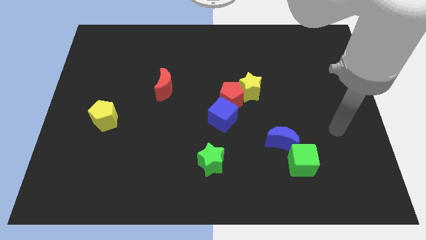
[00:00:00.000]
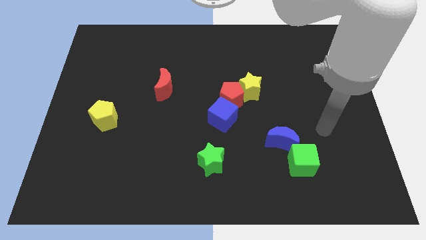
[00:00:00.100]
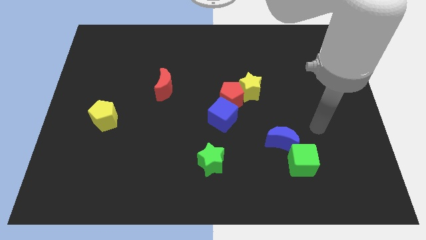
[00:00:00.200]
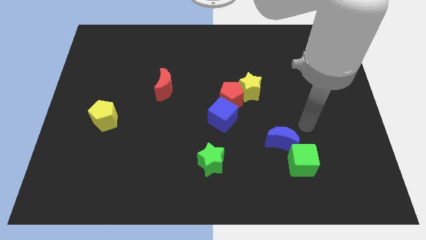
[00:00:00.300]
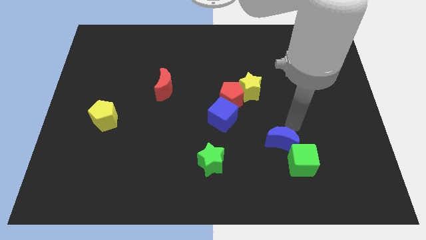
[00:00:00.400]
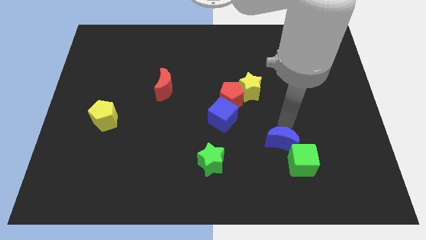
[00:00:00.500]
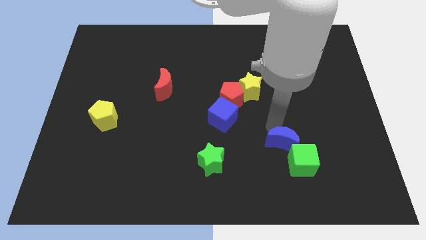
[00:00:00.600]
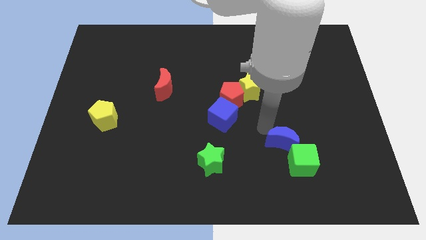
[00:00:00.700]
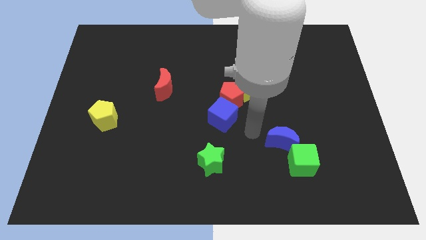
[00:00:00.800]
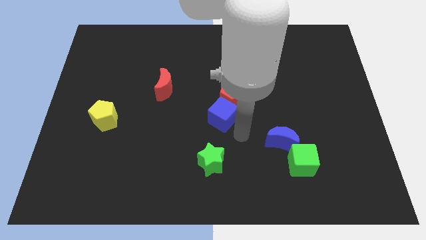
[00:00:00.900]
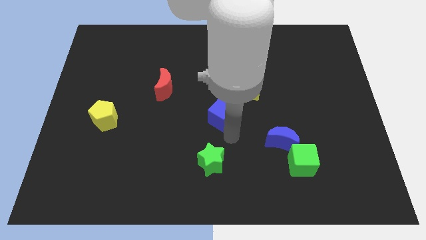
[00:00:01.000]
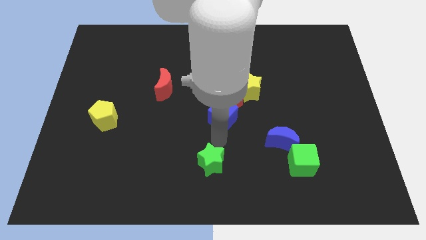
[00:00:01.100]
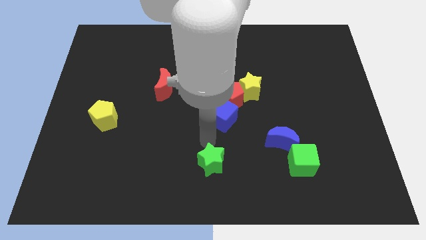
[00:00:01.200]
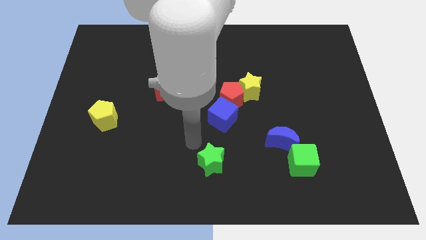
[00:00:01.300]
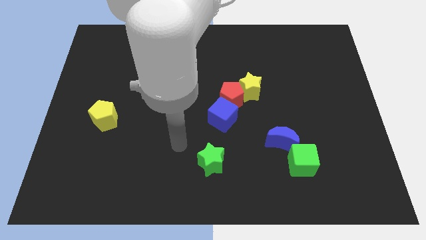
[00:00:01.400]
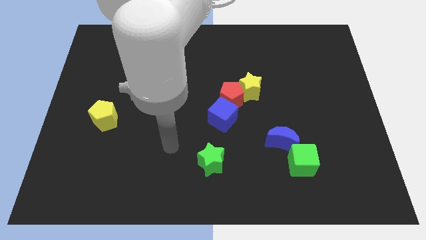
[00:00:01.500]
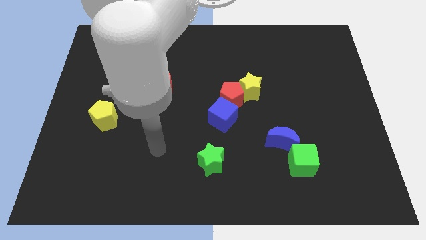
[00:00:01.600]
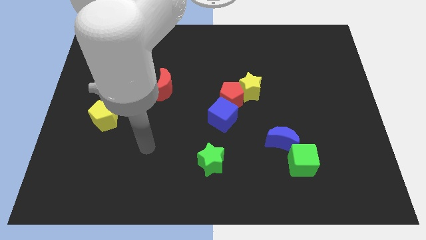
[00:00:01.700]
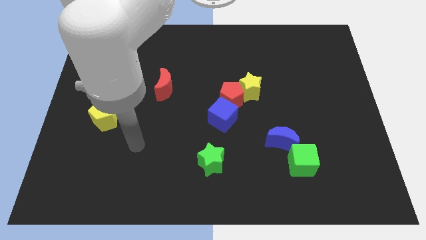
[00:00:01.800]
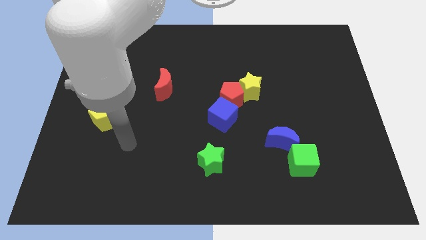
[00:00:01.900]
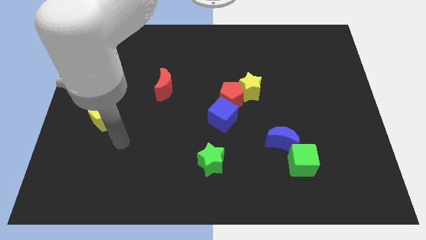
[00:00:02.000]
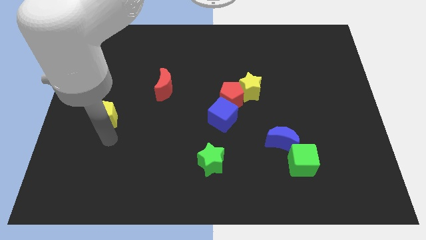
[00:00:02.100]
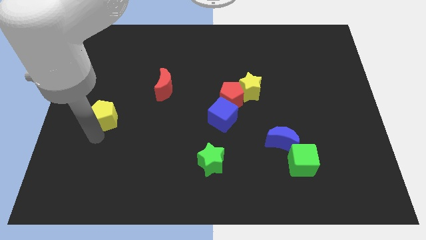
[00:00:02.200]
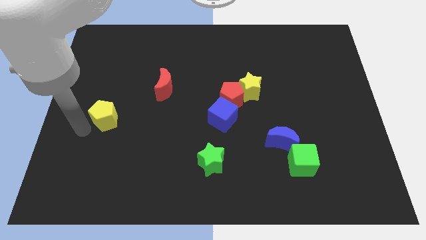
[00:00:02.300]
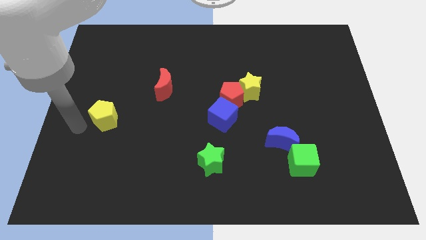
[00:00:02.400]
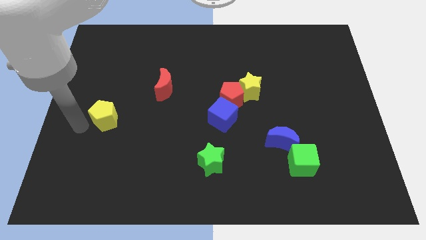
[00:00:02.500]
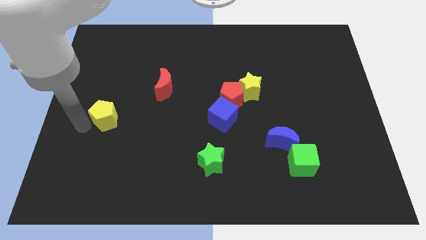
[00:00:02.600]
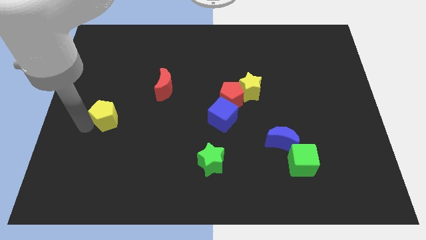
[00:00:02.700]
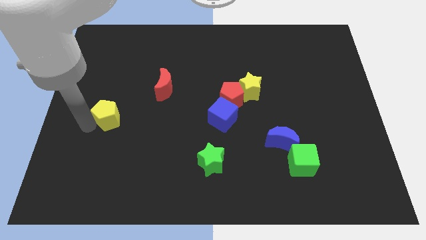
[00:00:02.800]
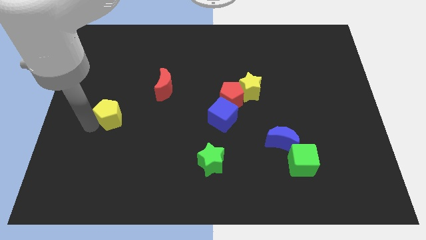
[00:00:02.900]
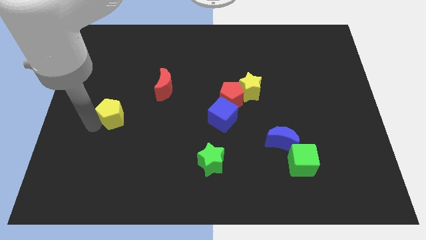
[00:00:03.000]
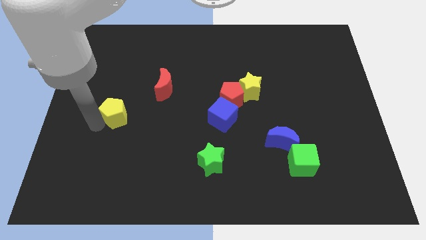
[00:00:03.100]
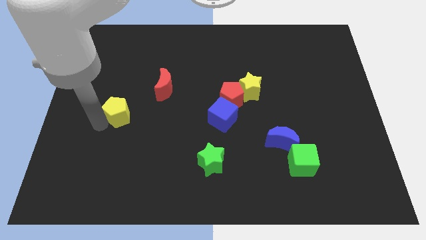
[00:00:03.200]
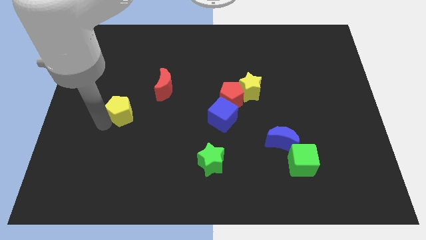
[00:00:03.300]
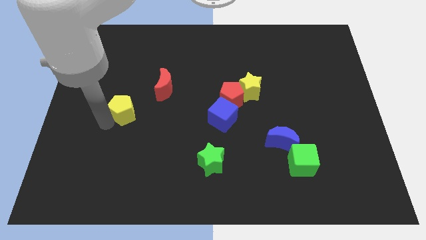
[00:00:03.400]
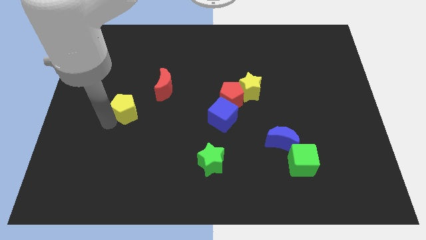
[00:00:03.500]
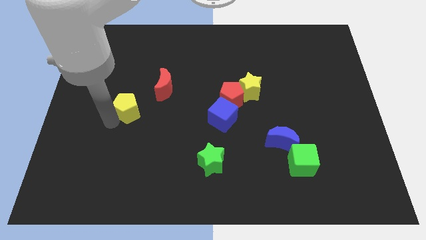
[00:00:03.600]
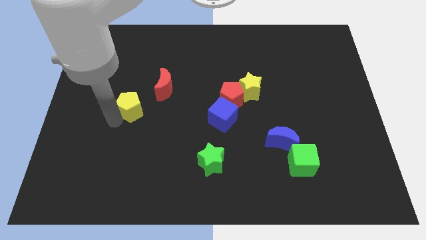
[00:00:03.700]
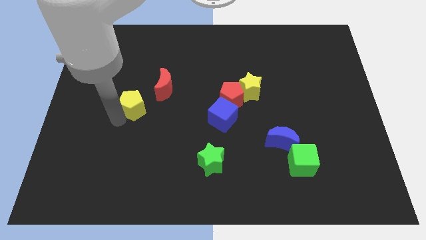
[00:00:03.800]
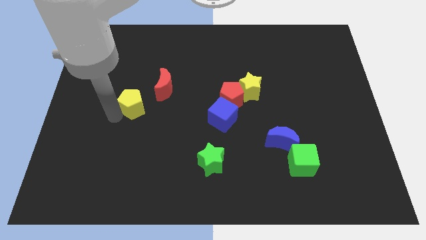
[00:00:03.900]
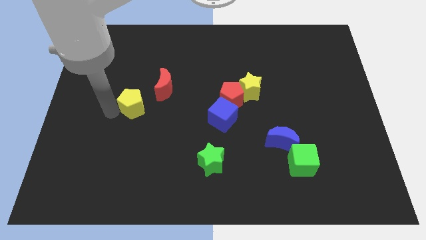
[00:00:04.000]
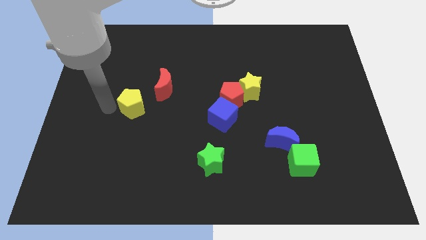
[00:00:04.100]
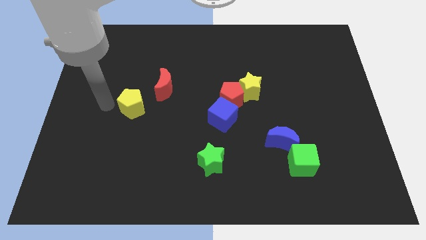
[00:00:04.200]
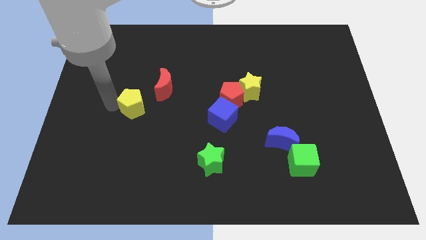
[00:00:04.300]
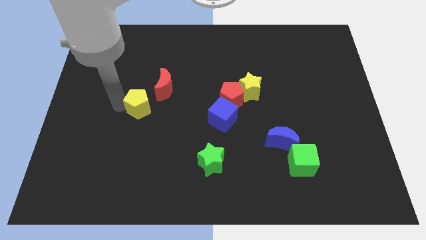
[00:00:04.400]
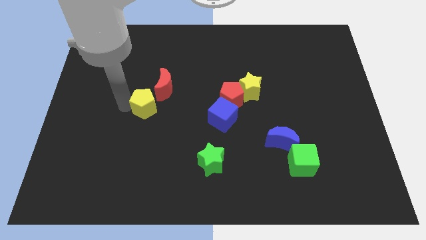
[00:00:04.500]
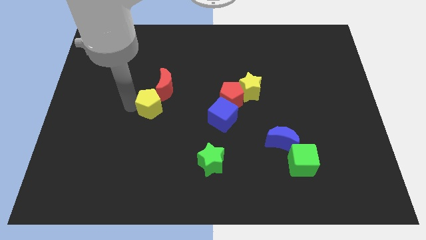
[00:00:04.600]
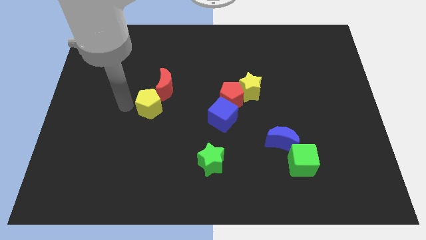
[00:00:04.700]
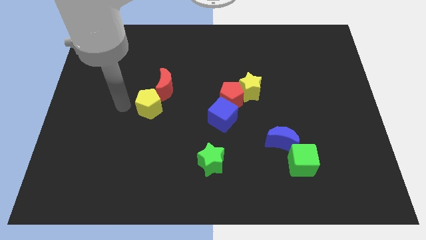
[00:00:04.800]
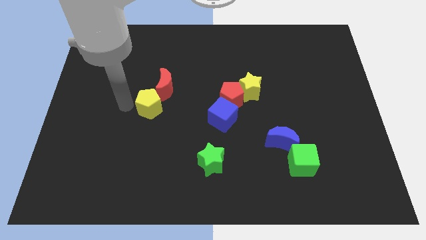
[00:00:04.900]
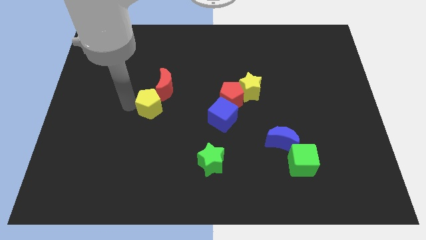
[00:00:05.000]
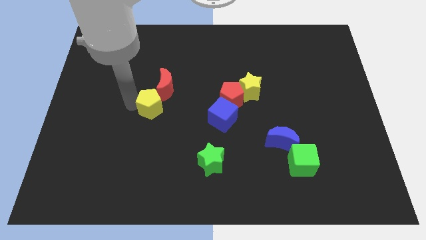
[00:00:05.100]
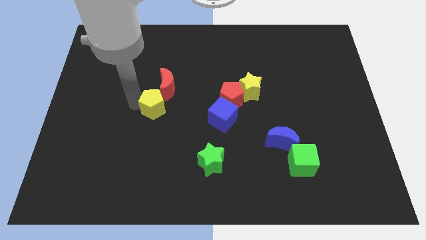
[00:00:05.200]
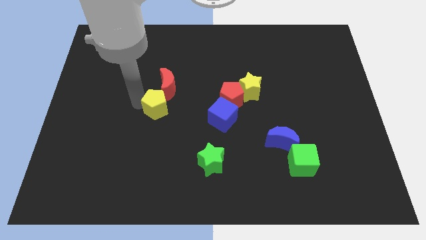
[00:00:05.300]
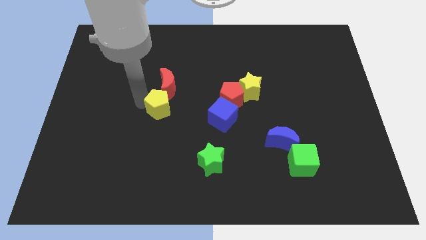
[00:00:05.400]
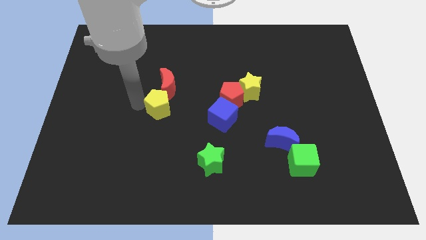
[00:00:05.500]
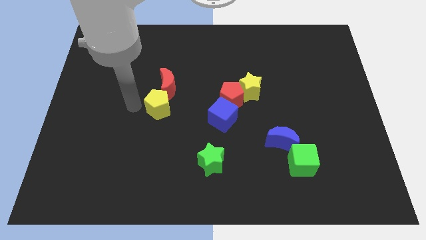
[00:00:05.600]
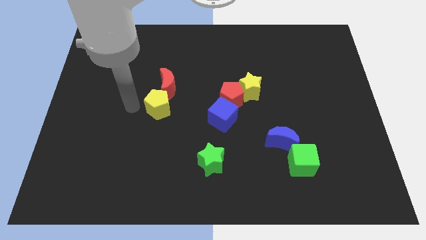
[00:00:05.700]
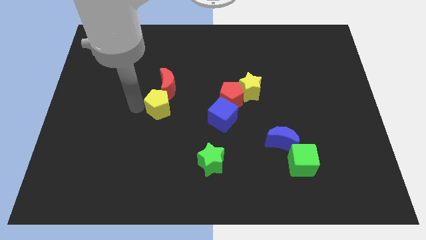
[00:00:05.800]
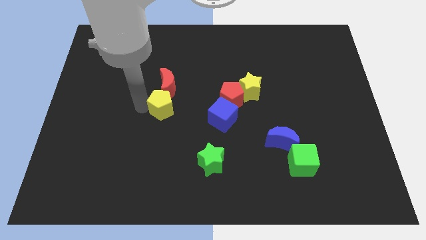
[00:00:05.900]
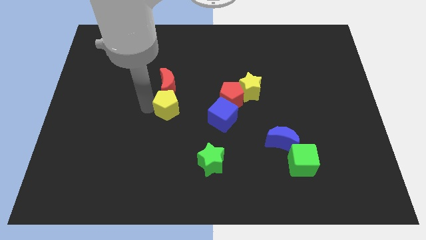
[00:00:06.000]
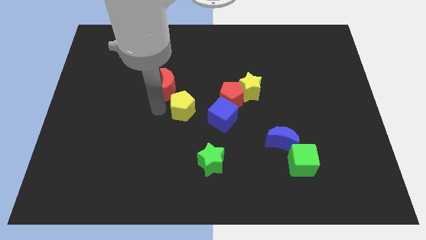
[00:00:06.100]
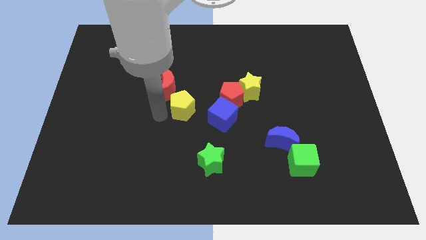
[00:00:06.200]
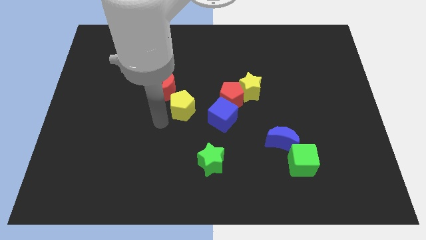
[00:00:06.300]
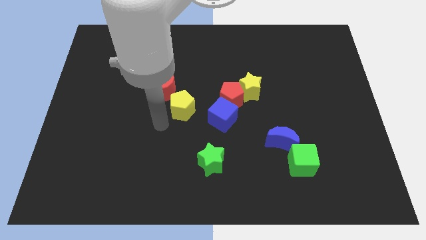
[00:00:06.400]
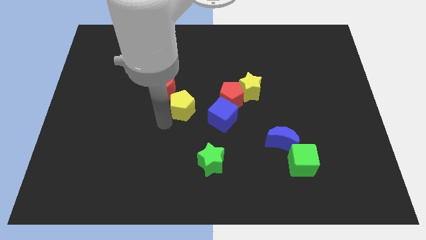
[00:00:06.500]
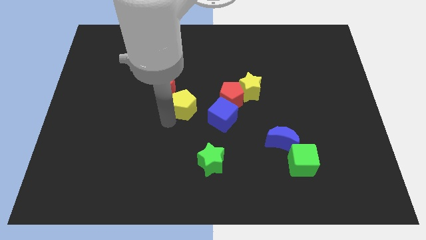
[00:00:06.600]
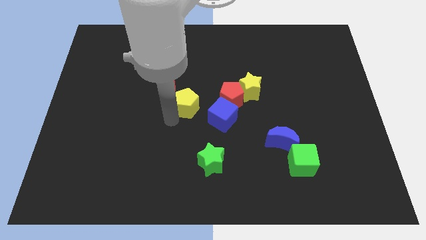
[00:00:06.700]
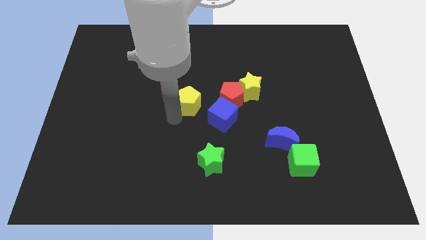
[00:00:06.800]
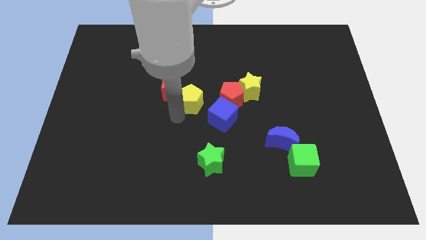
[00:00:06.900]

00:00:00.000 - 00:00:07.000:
put the yellow pentagon left of the yellow star
